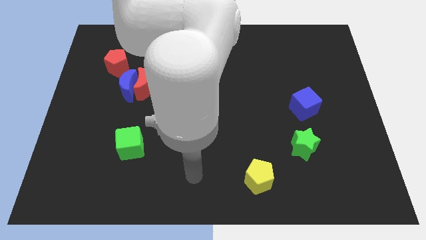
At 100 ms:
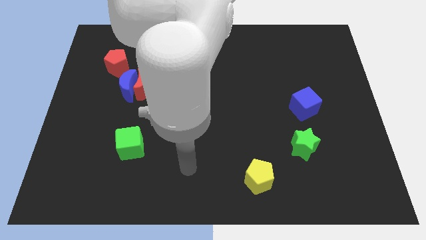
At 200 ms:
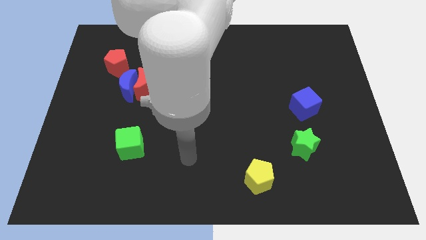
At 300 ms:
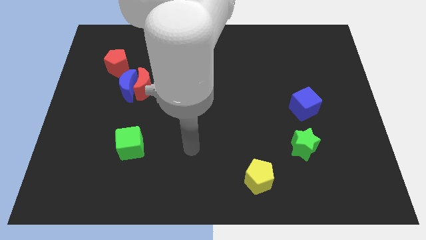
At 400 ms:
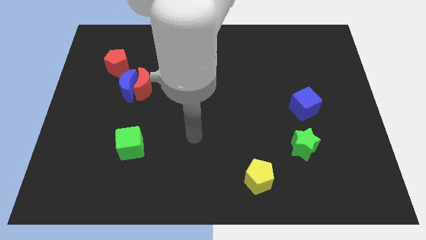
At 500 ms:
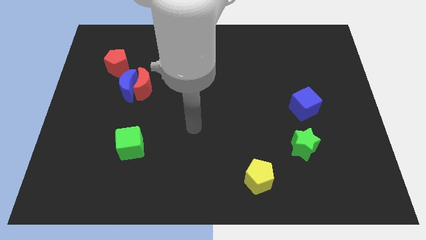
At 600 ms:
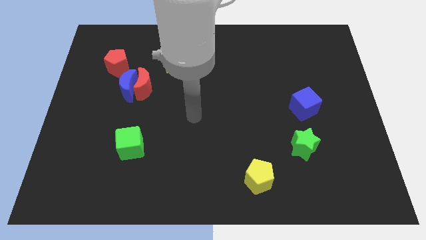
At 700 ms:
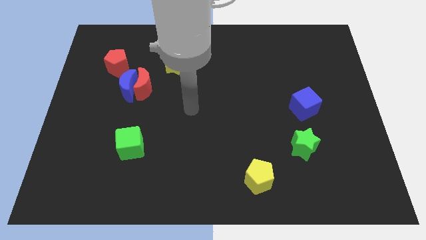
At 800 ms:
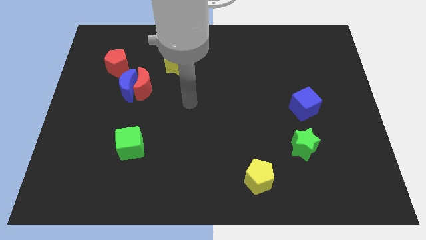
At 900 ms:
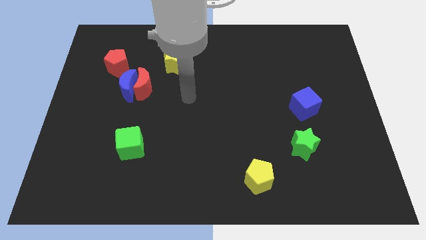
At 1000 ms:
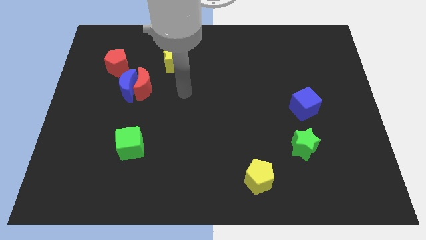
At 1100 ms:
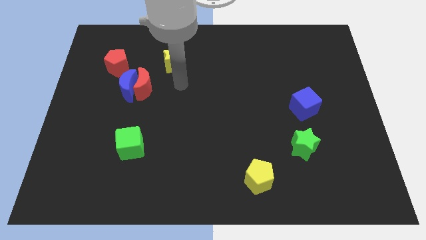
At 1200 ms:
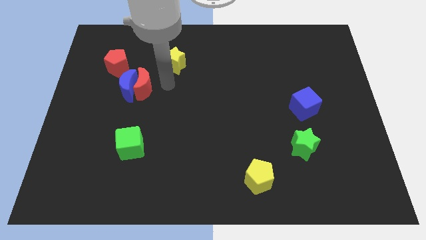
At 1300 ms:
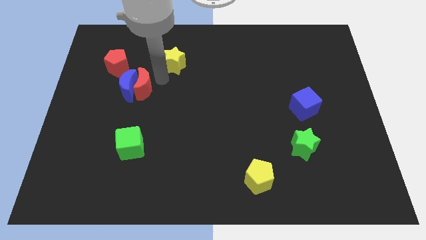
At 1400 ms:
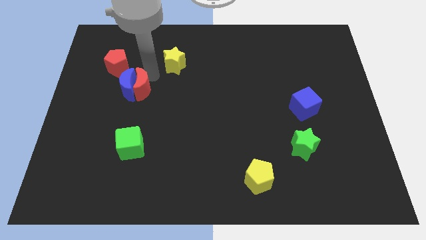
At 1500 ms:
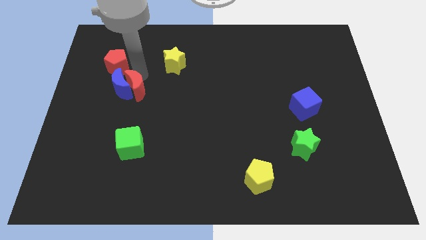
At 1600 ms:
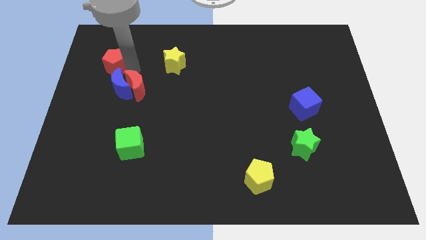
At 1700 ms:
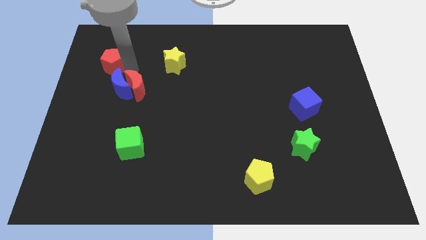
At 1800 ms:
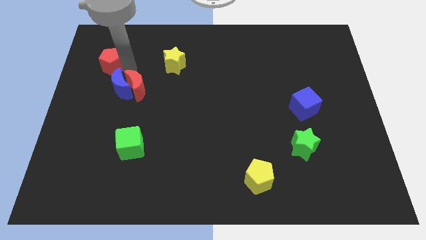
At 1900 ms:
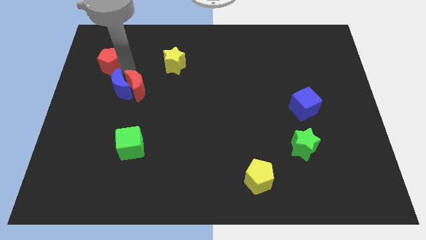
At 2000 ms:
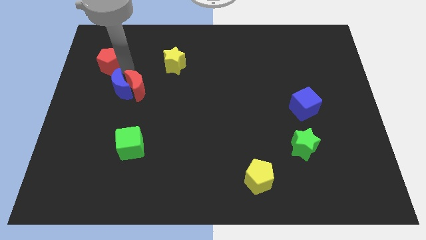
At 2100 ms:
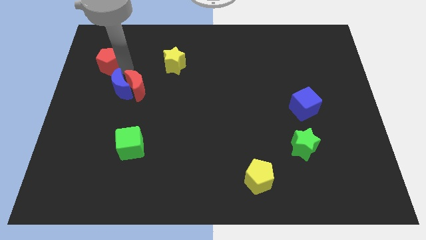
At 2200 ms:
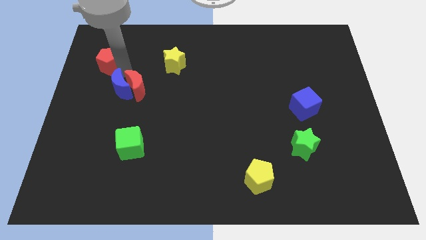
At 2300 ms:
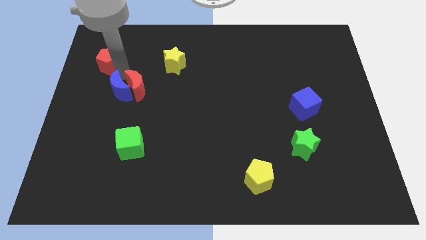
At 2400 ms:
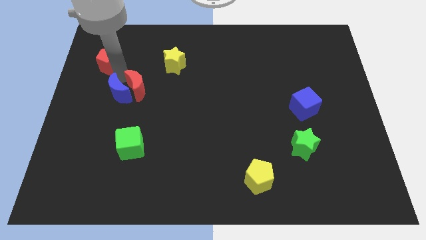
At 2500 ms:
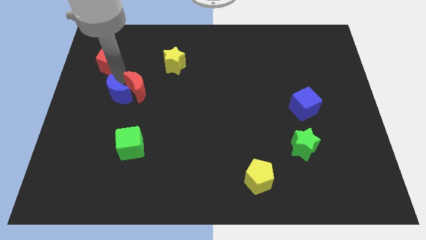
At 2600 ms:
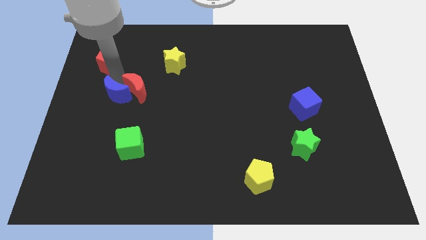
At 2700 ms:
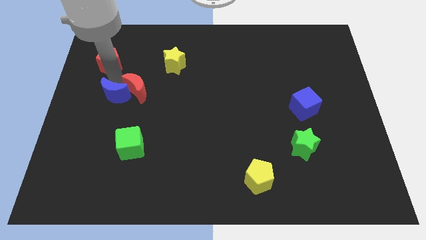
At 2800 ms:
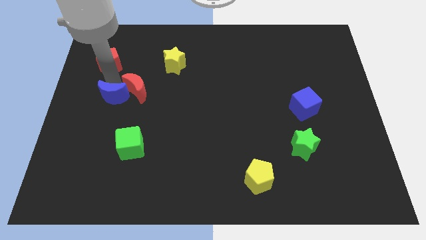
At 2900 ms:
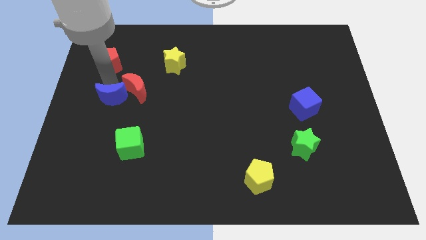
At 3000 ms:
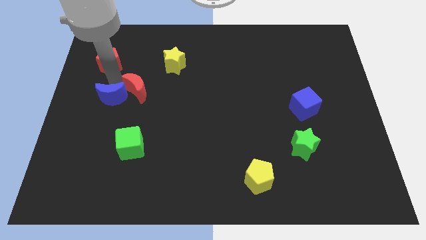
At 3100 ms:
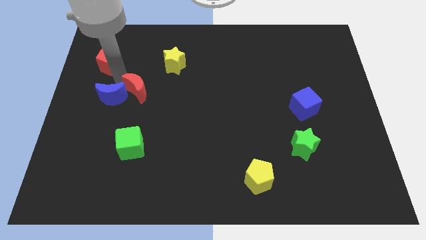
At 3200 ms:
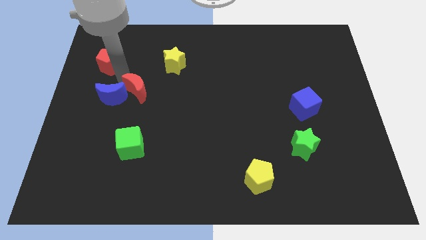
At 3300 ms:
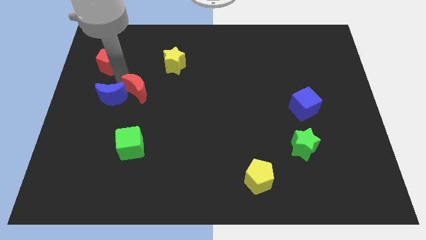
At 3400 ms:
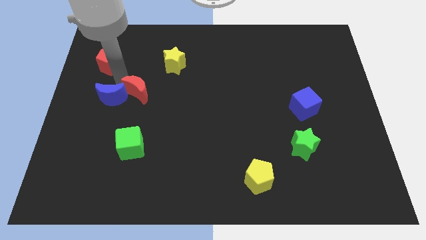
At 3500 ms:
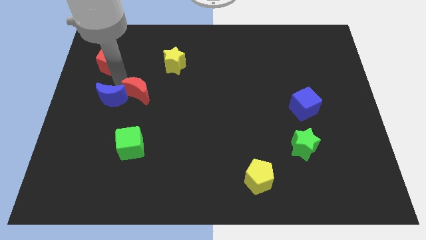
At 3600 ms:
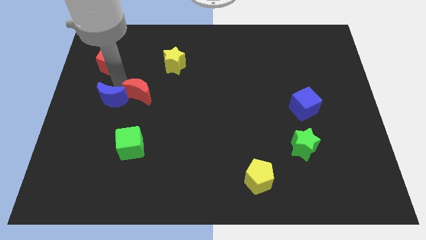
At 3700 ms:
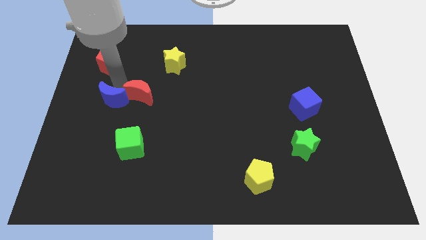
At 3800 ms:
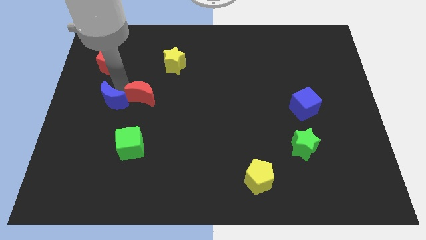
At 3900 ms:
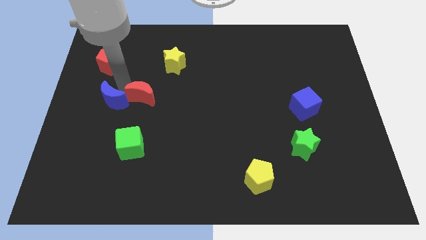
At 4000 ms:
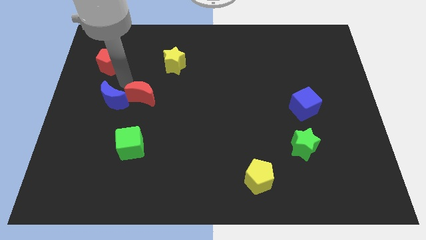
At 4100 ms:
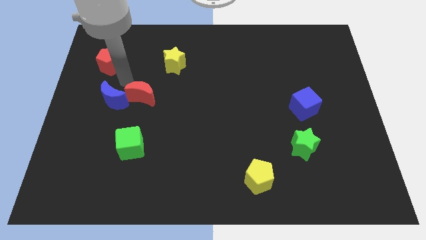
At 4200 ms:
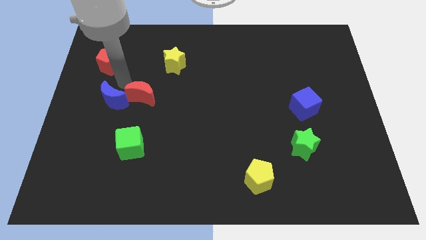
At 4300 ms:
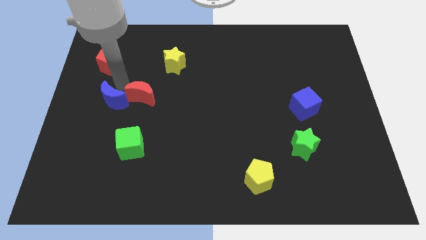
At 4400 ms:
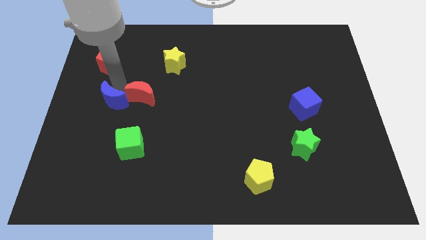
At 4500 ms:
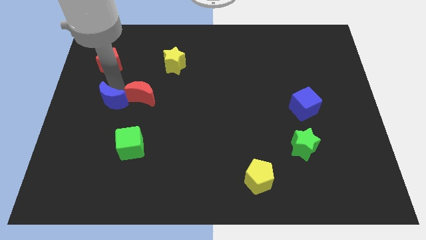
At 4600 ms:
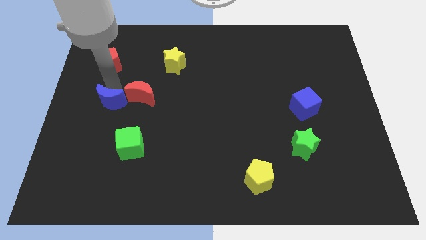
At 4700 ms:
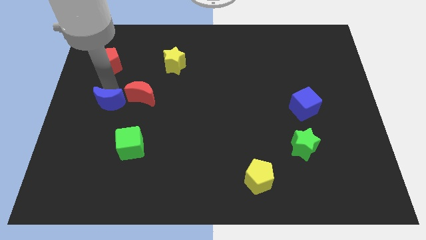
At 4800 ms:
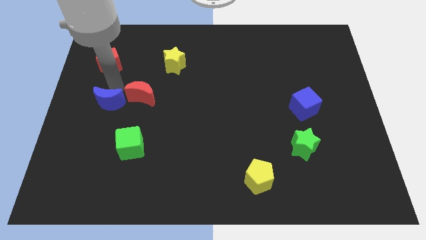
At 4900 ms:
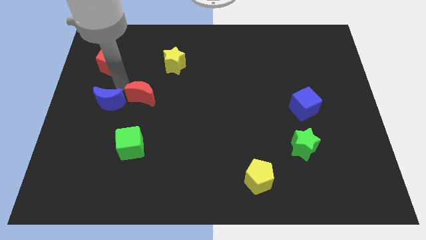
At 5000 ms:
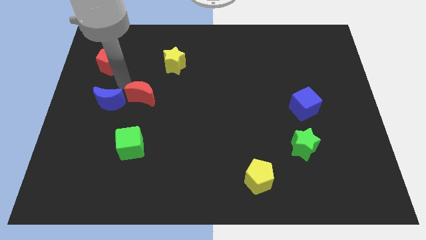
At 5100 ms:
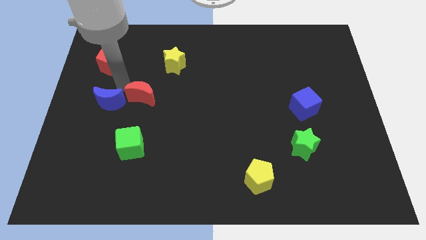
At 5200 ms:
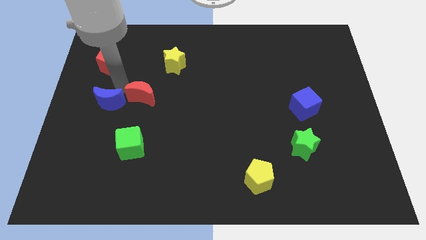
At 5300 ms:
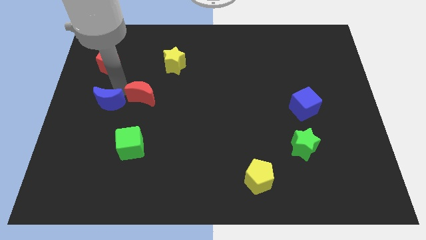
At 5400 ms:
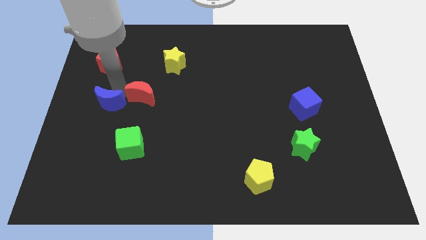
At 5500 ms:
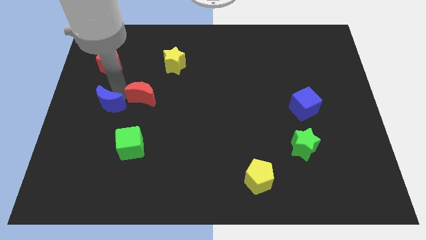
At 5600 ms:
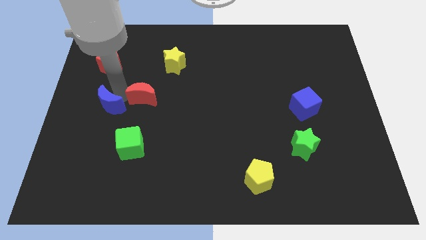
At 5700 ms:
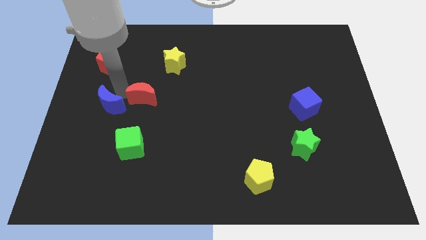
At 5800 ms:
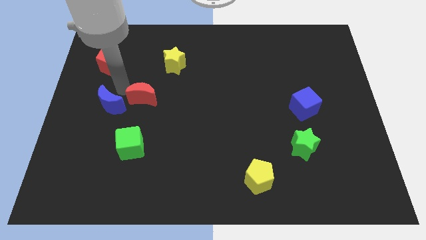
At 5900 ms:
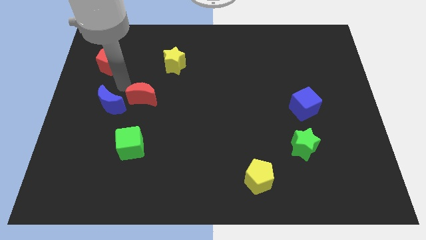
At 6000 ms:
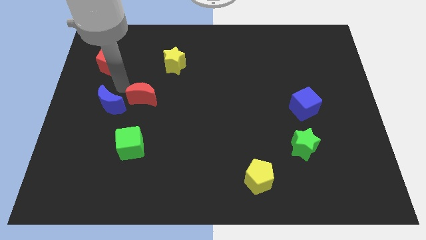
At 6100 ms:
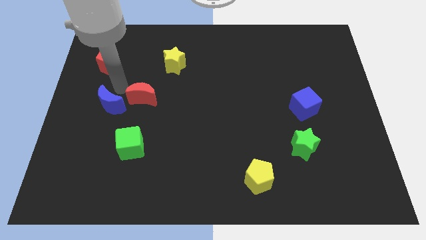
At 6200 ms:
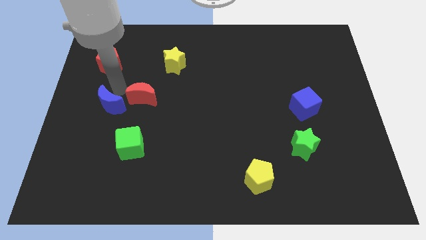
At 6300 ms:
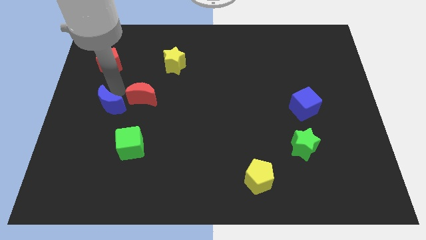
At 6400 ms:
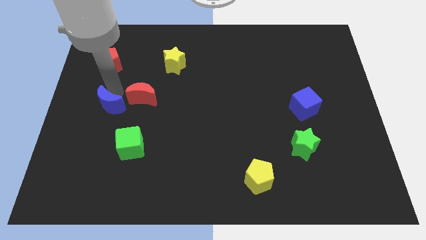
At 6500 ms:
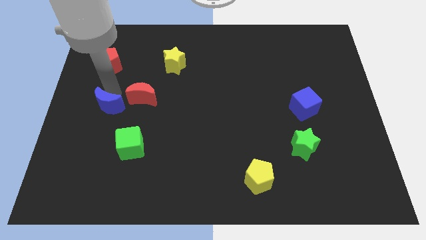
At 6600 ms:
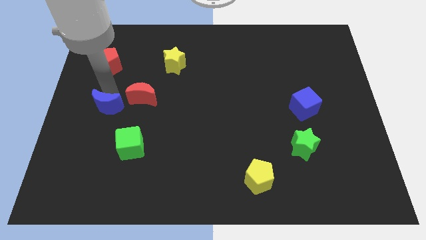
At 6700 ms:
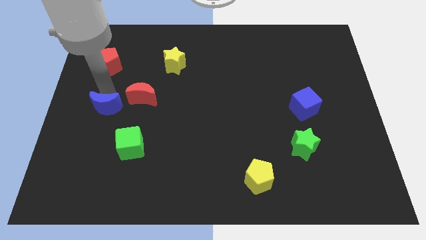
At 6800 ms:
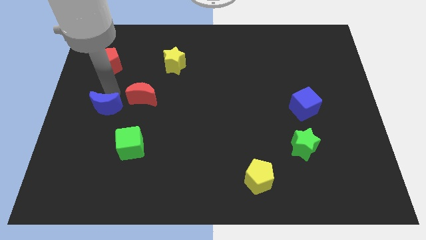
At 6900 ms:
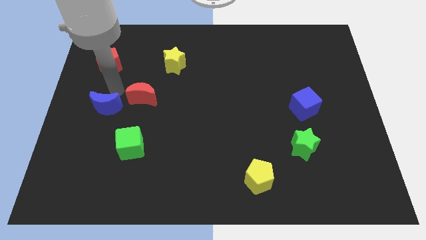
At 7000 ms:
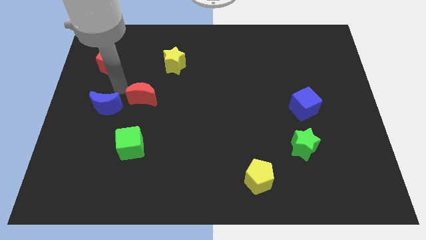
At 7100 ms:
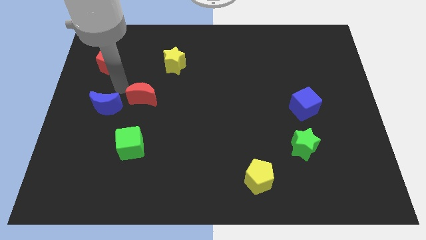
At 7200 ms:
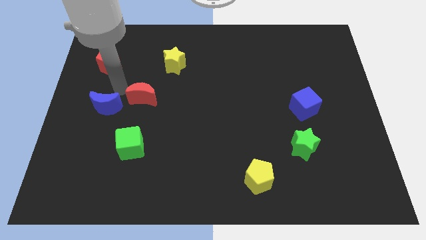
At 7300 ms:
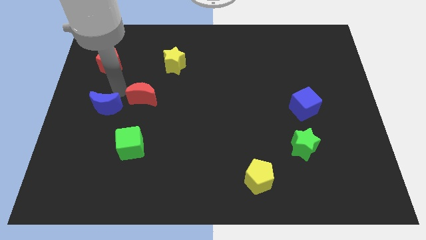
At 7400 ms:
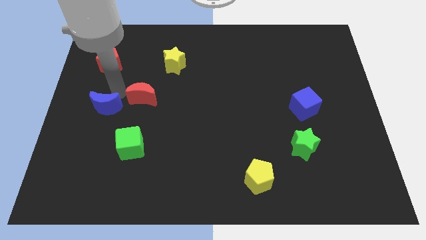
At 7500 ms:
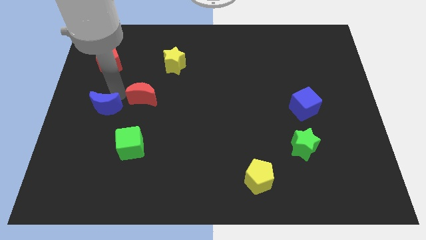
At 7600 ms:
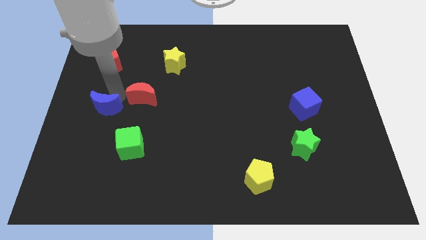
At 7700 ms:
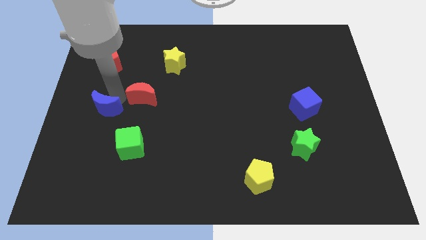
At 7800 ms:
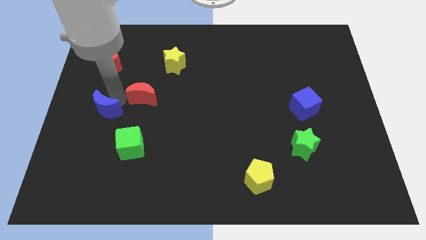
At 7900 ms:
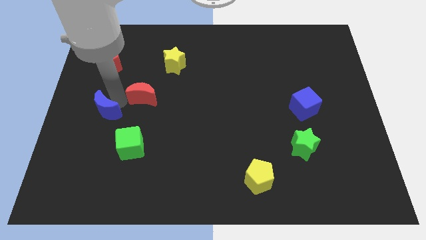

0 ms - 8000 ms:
pull the blue moon apart from the red moon and red pentagon

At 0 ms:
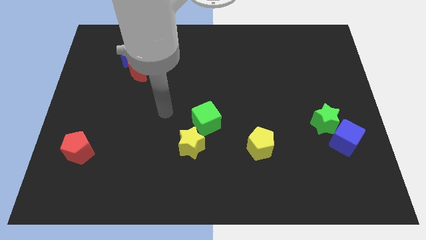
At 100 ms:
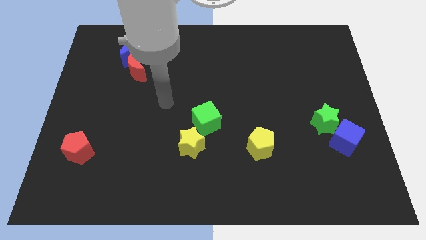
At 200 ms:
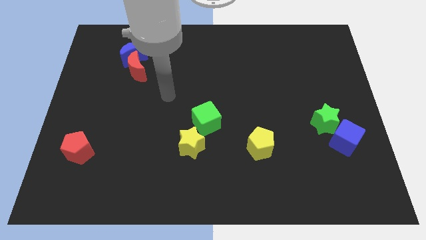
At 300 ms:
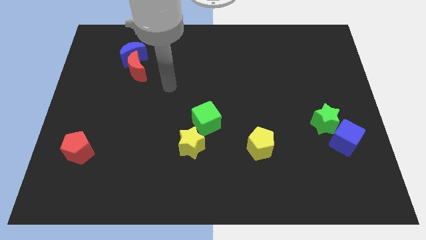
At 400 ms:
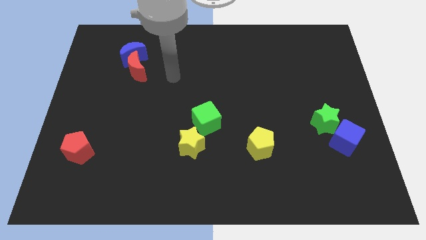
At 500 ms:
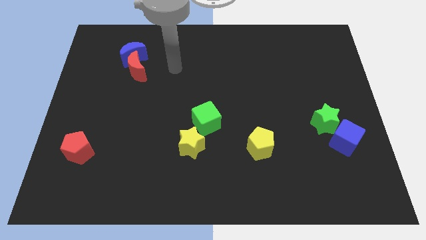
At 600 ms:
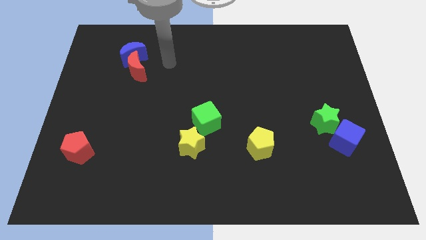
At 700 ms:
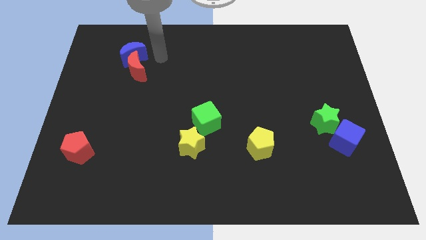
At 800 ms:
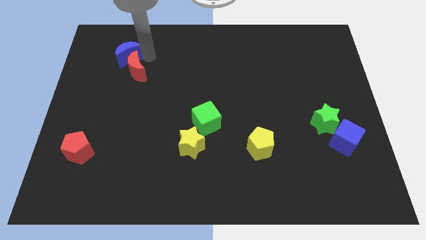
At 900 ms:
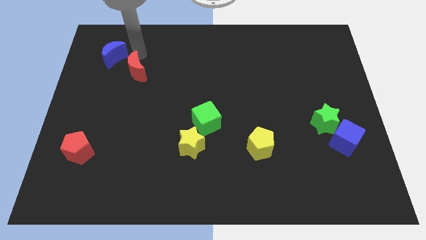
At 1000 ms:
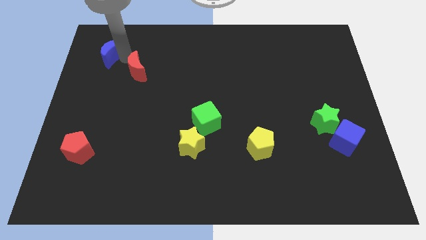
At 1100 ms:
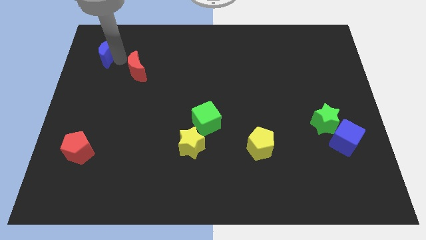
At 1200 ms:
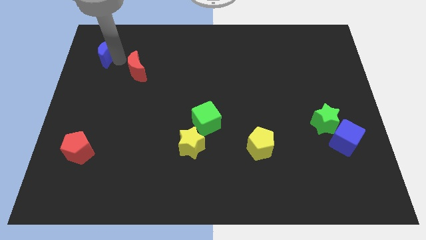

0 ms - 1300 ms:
pull the red moon apart from the blue moon

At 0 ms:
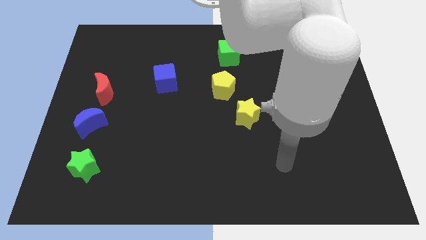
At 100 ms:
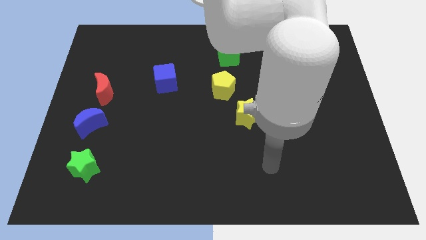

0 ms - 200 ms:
move the red moon away from the blue moon
